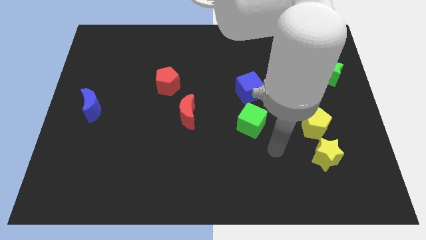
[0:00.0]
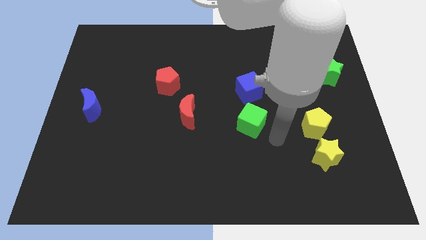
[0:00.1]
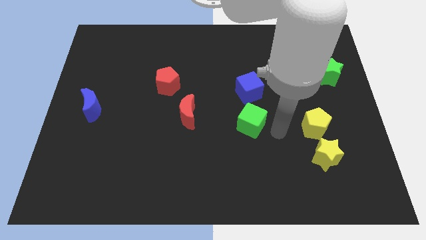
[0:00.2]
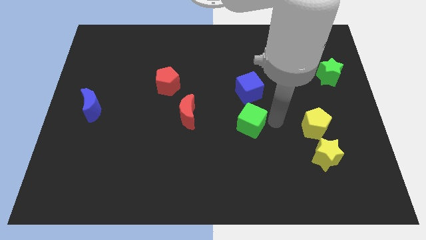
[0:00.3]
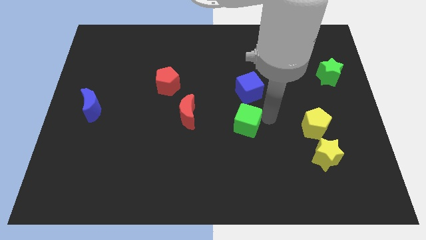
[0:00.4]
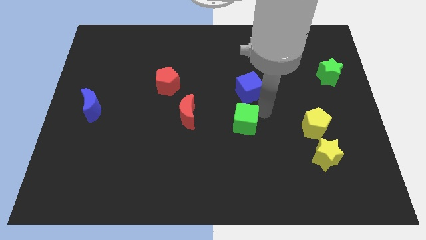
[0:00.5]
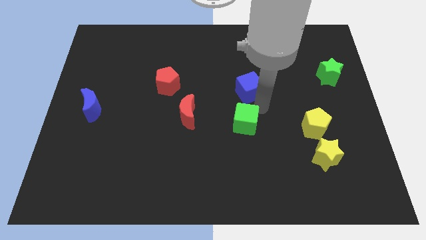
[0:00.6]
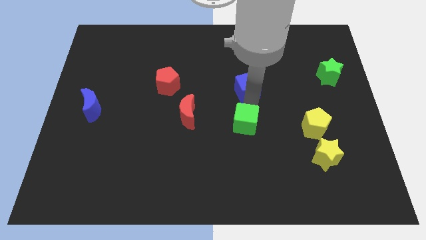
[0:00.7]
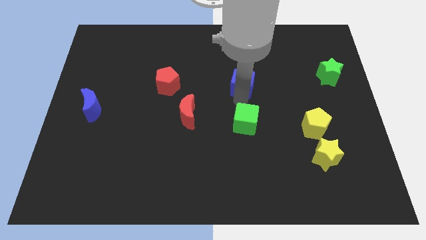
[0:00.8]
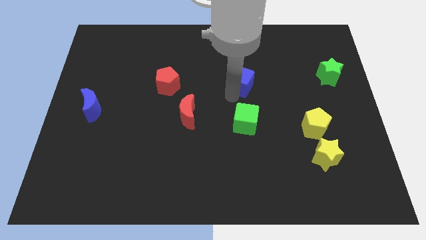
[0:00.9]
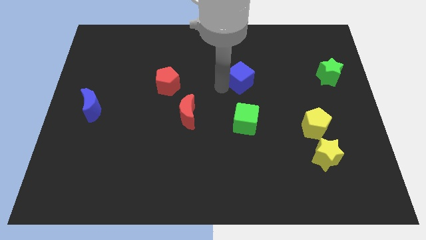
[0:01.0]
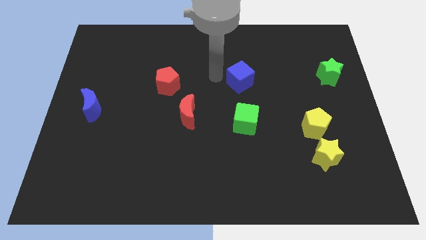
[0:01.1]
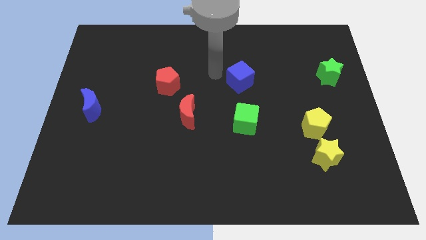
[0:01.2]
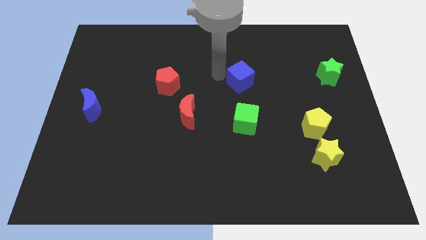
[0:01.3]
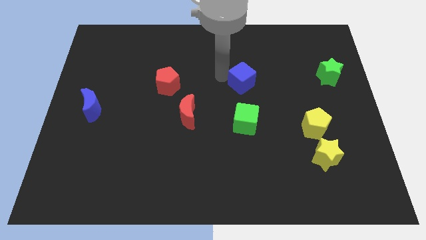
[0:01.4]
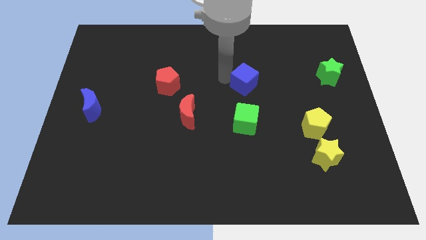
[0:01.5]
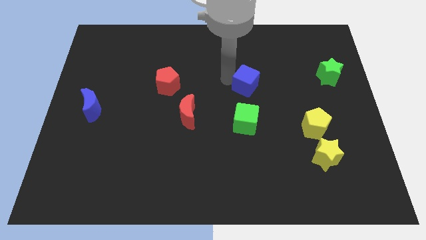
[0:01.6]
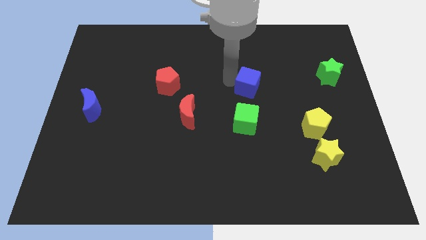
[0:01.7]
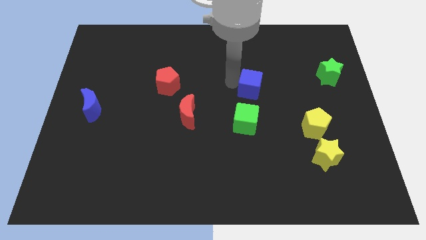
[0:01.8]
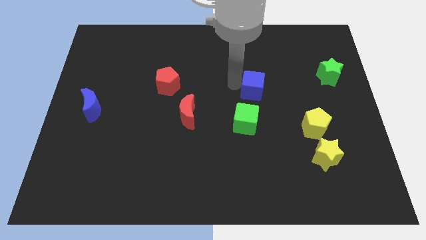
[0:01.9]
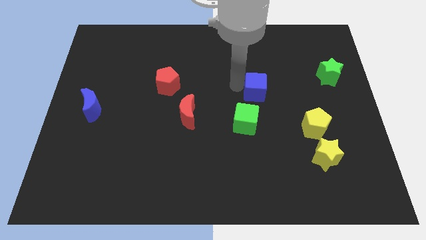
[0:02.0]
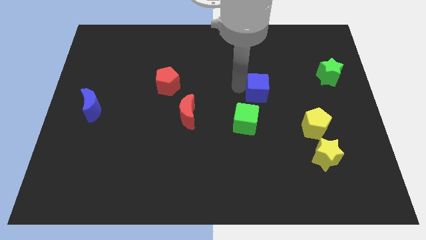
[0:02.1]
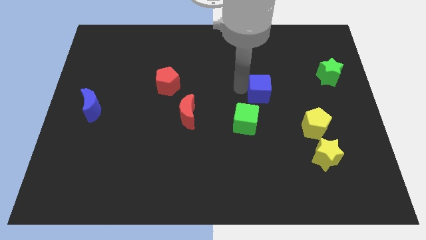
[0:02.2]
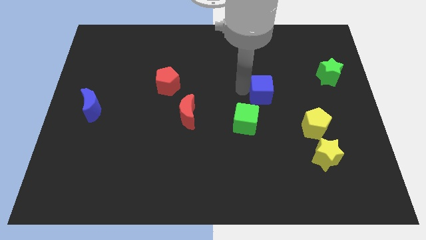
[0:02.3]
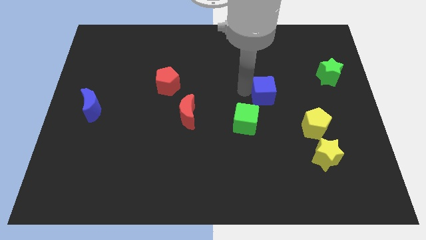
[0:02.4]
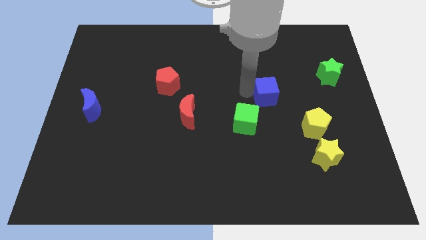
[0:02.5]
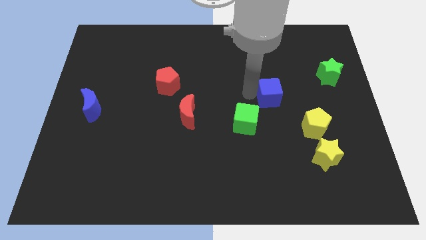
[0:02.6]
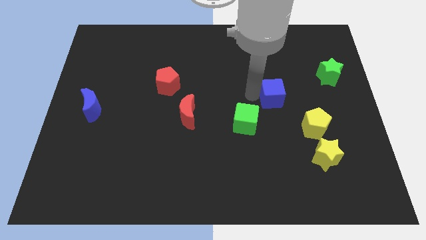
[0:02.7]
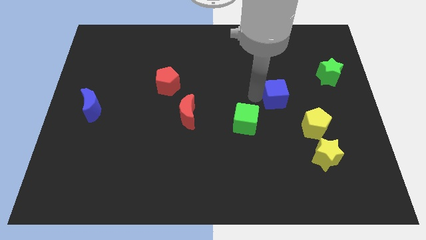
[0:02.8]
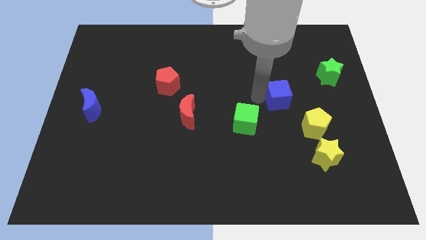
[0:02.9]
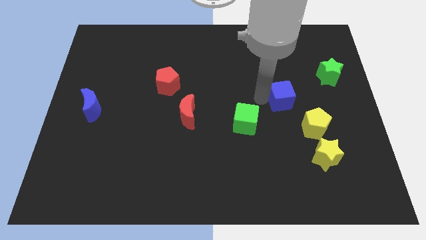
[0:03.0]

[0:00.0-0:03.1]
slide the blue cube right a little

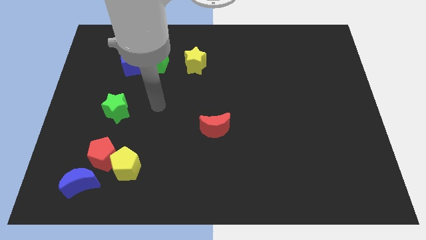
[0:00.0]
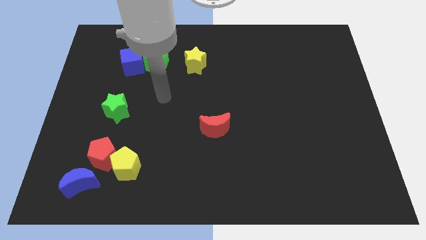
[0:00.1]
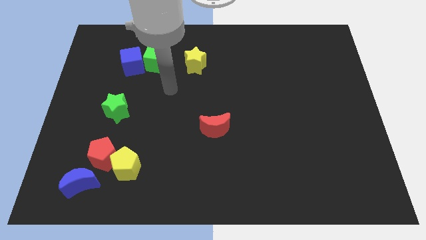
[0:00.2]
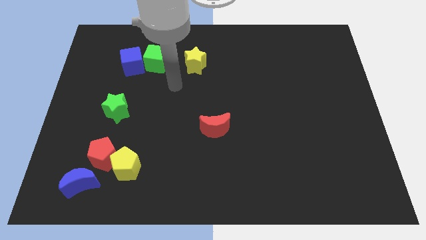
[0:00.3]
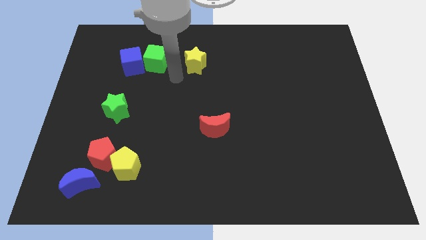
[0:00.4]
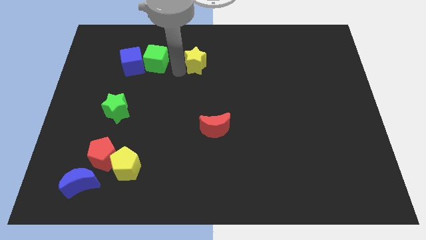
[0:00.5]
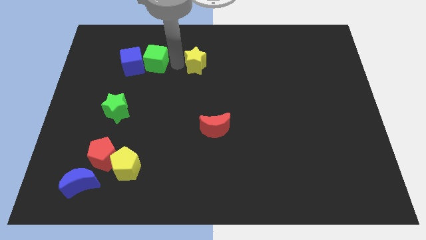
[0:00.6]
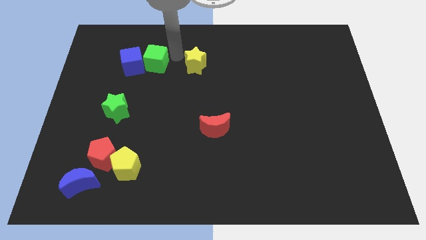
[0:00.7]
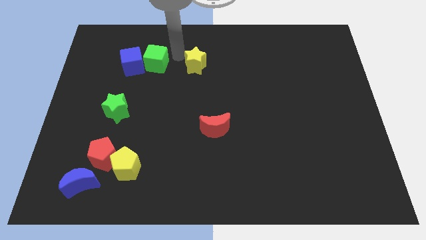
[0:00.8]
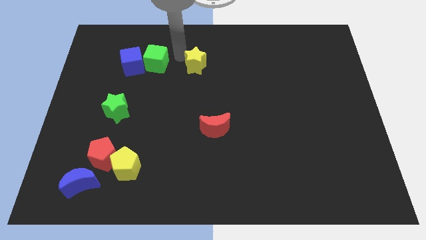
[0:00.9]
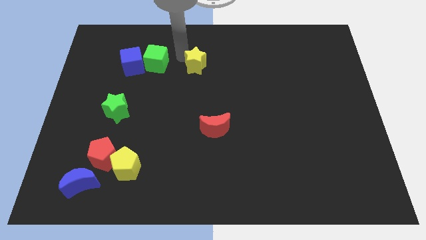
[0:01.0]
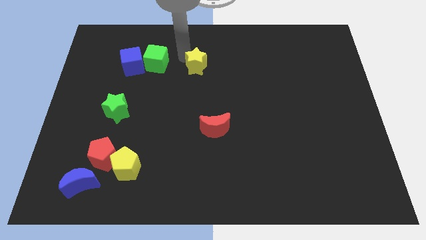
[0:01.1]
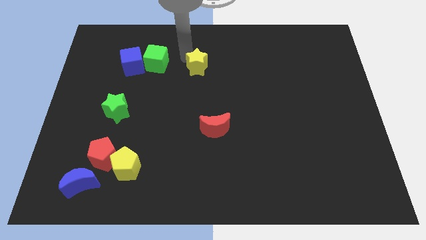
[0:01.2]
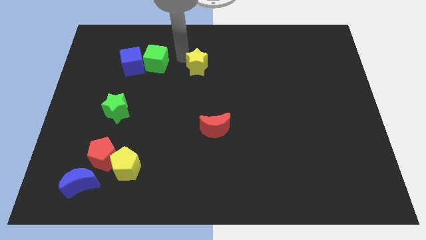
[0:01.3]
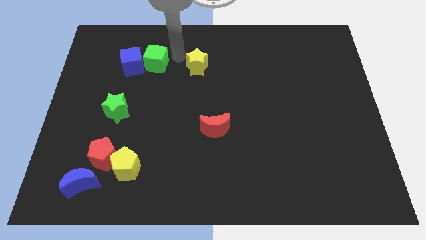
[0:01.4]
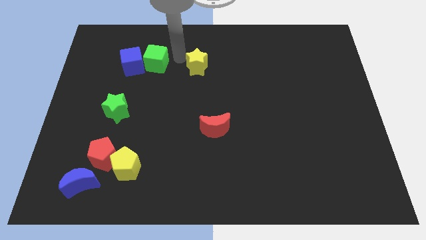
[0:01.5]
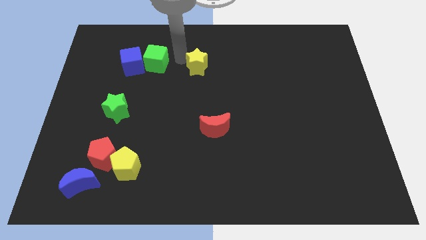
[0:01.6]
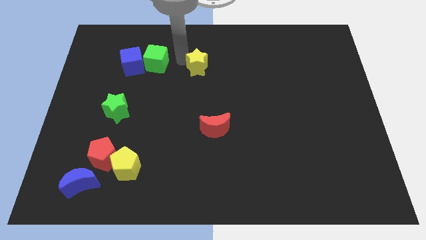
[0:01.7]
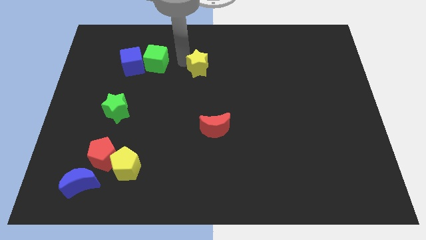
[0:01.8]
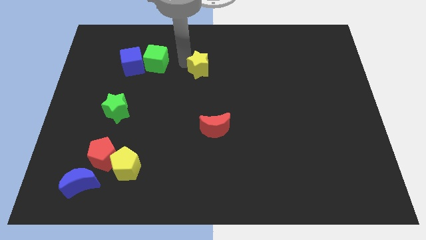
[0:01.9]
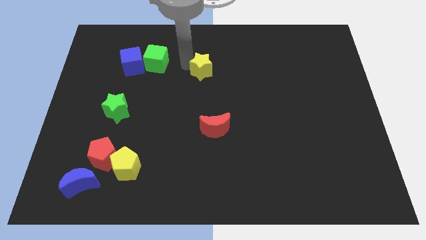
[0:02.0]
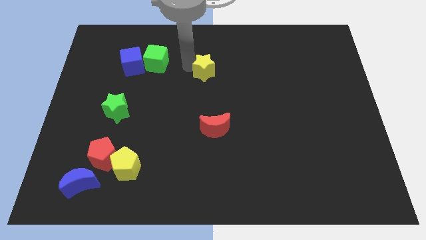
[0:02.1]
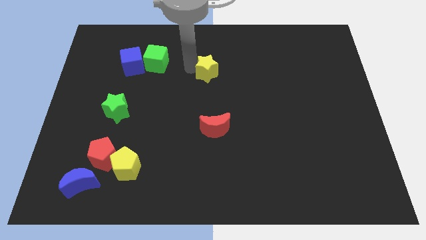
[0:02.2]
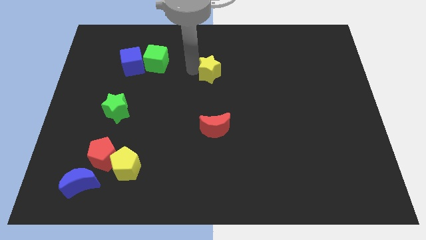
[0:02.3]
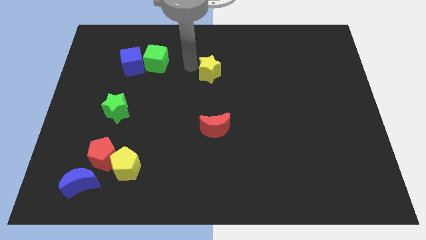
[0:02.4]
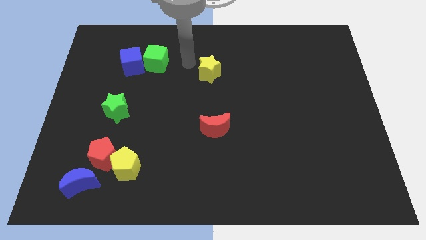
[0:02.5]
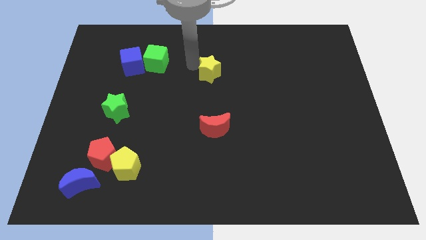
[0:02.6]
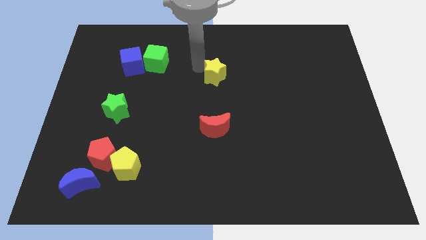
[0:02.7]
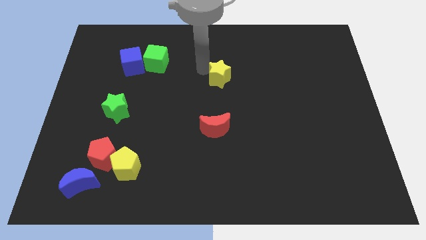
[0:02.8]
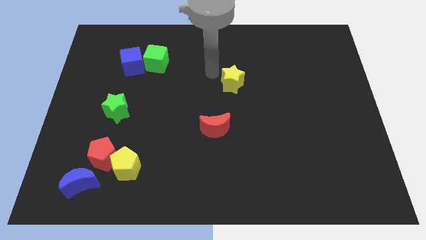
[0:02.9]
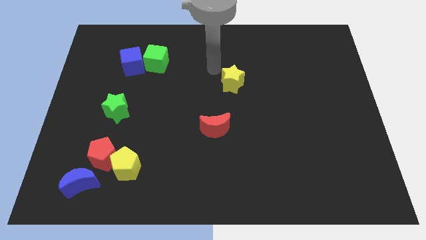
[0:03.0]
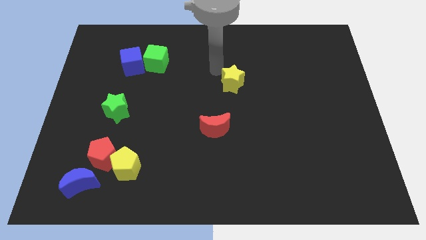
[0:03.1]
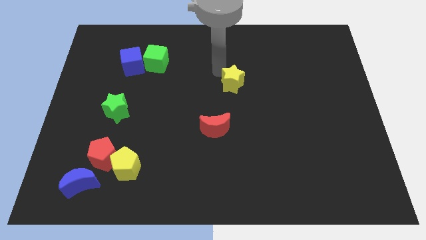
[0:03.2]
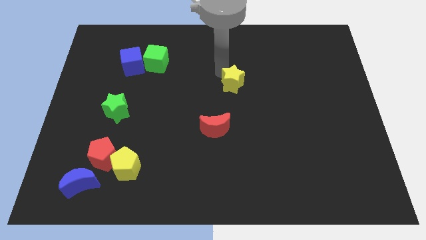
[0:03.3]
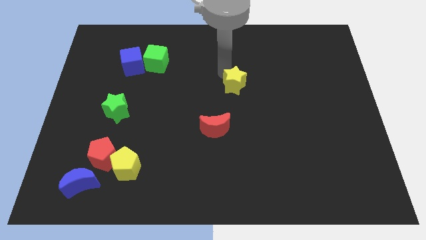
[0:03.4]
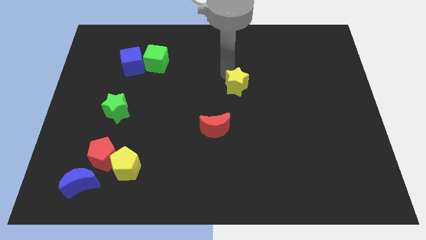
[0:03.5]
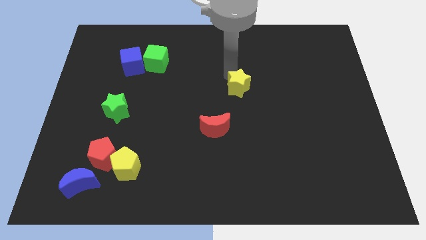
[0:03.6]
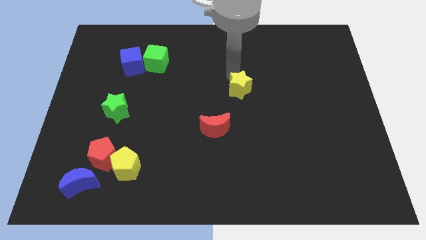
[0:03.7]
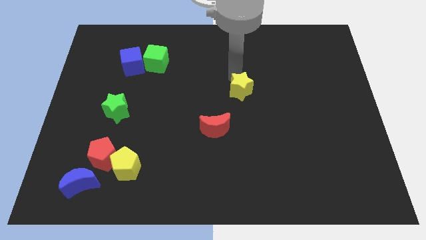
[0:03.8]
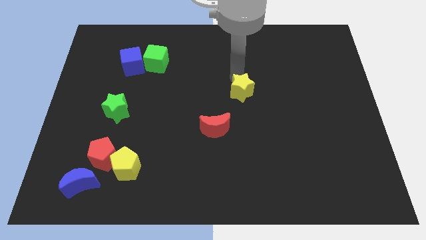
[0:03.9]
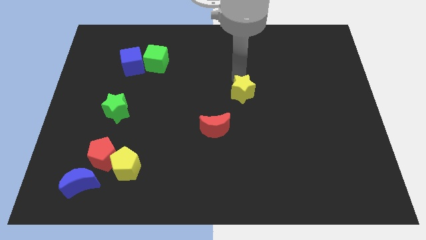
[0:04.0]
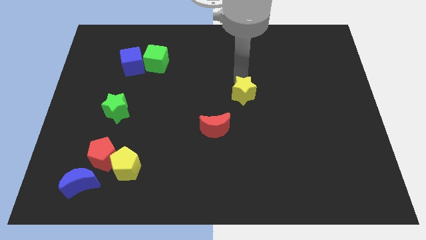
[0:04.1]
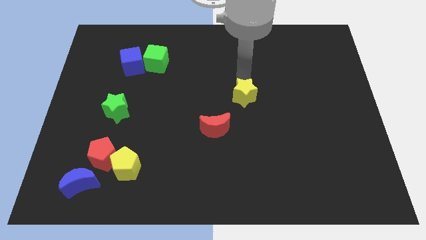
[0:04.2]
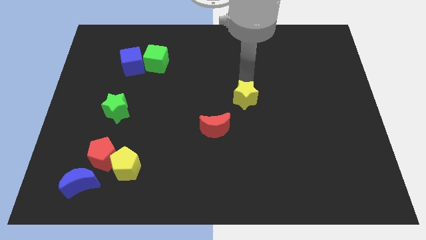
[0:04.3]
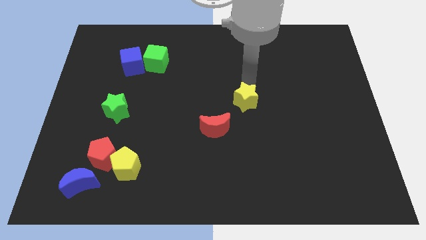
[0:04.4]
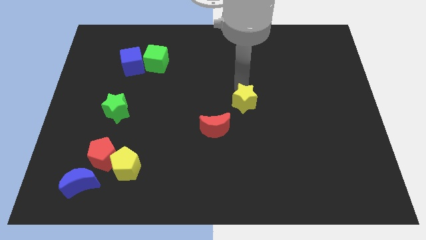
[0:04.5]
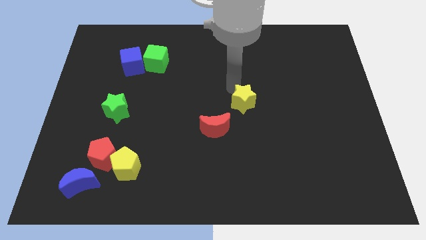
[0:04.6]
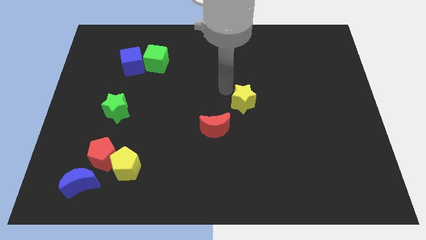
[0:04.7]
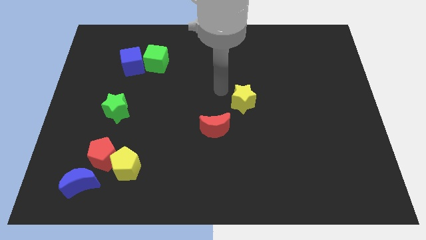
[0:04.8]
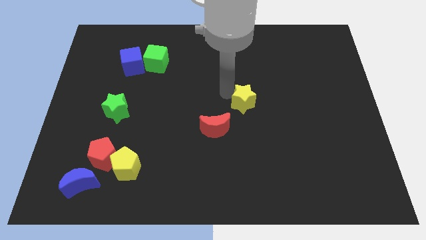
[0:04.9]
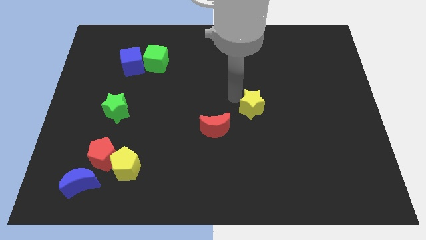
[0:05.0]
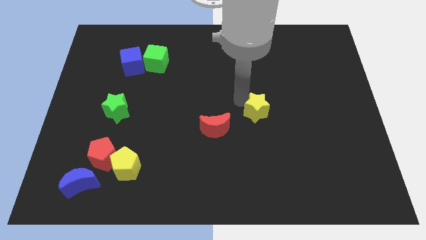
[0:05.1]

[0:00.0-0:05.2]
slide the yellow star downwards and right

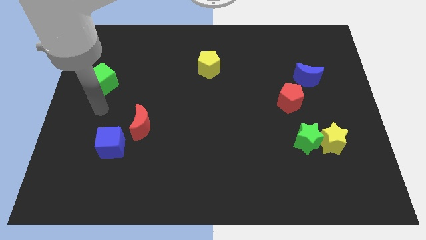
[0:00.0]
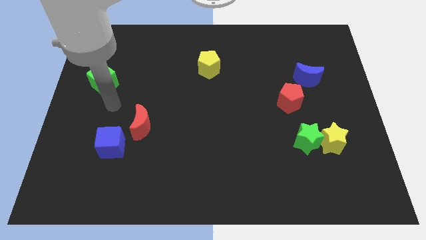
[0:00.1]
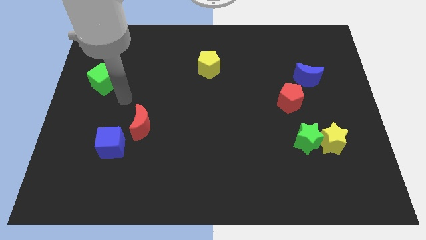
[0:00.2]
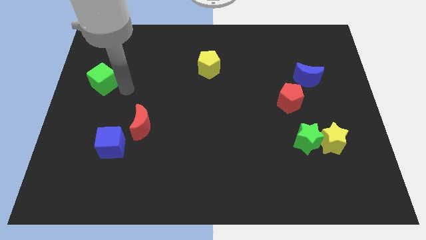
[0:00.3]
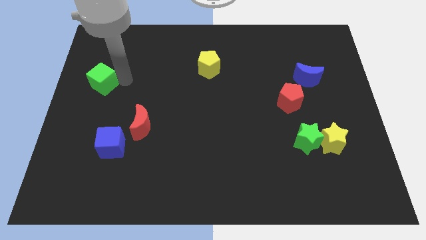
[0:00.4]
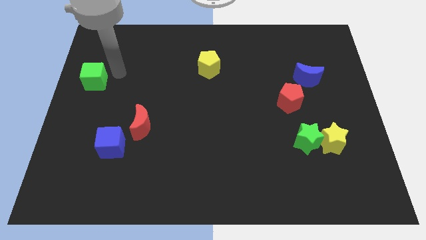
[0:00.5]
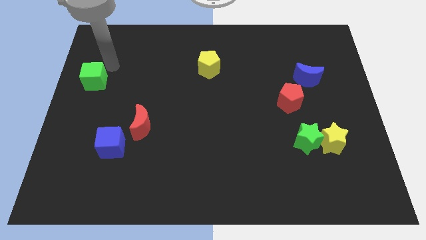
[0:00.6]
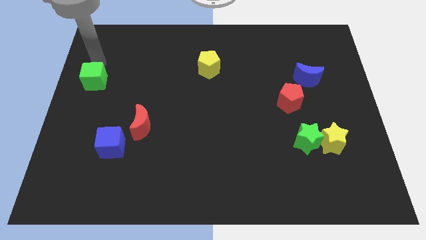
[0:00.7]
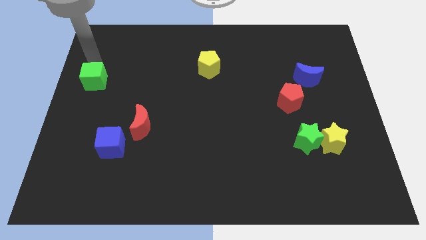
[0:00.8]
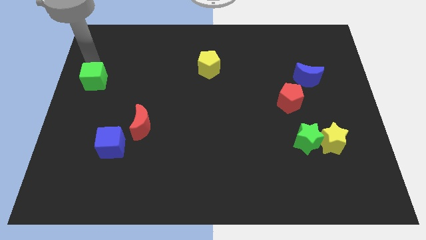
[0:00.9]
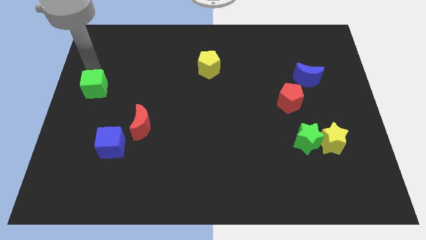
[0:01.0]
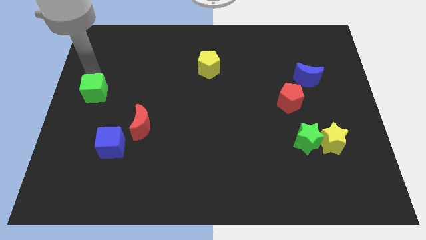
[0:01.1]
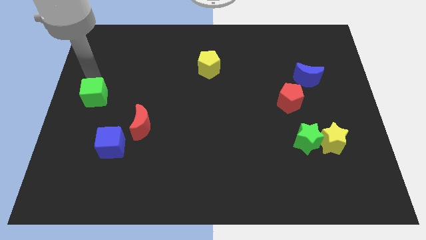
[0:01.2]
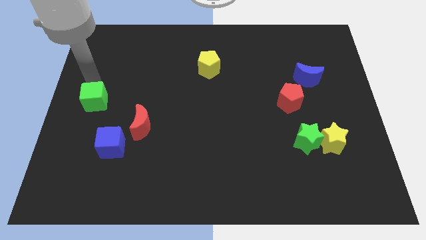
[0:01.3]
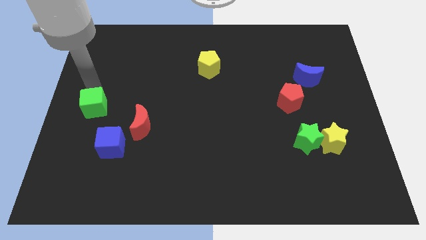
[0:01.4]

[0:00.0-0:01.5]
slightly move the green cube down
